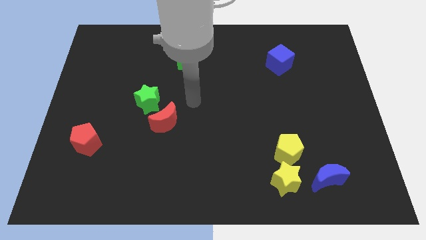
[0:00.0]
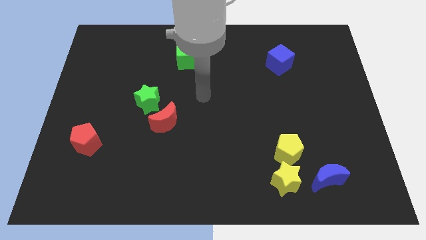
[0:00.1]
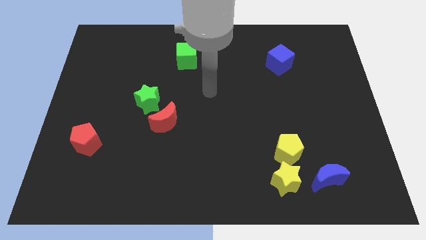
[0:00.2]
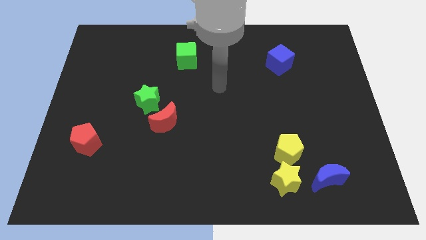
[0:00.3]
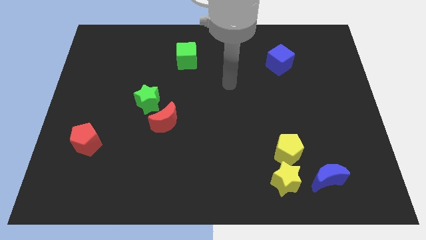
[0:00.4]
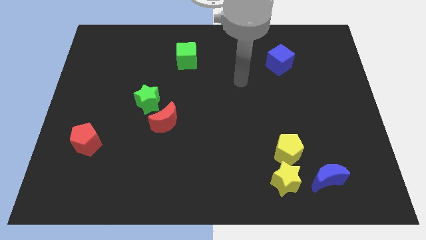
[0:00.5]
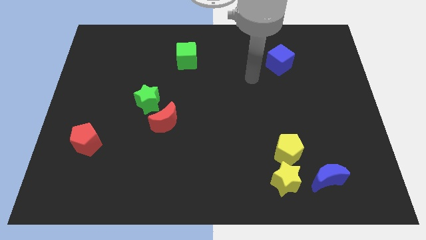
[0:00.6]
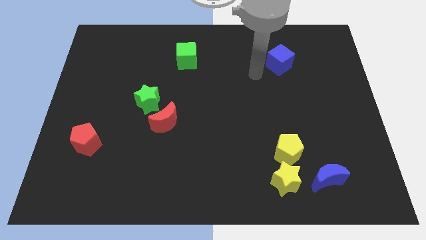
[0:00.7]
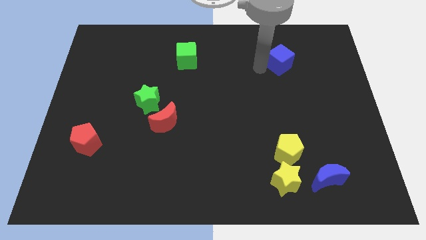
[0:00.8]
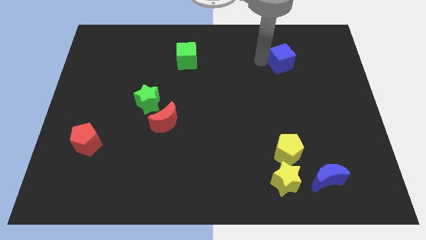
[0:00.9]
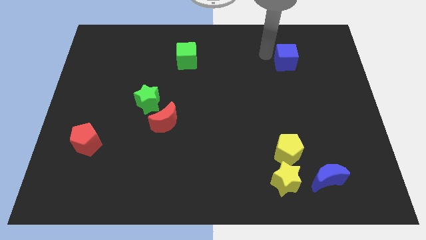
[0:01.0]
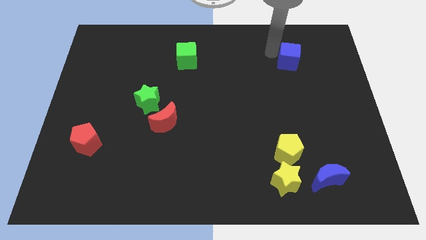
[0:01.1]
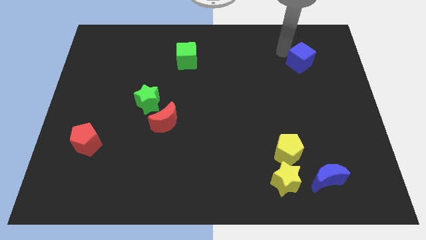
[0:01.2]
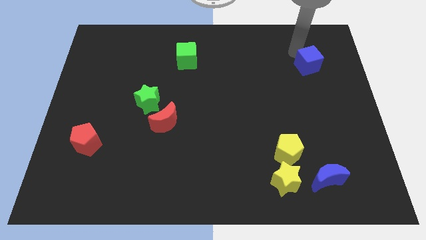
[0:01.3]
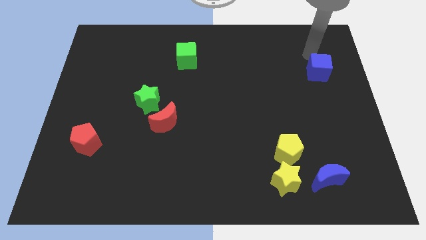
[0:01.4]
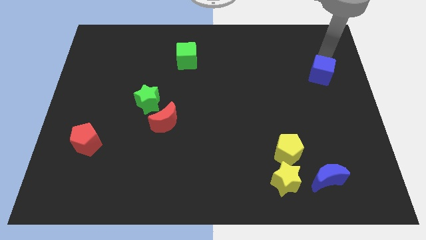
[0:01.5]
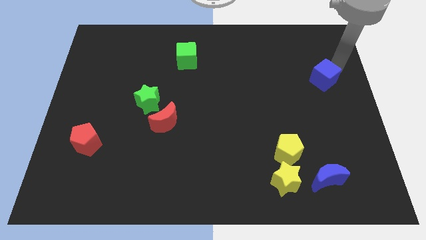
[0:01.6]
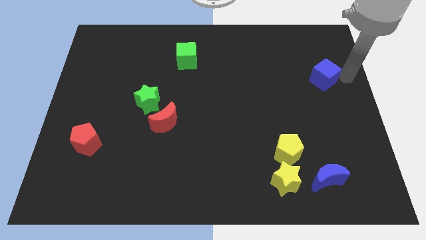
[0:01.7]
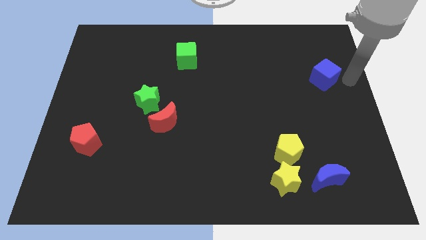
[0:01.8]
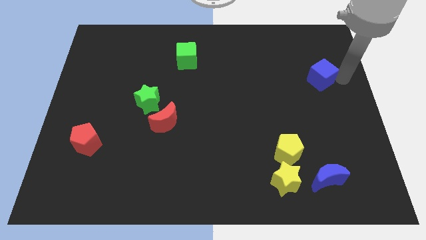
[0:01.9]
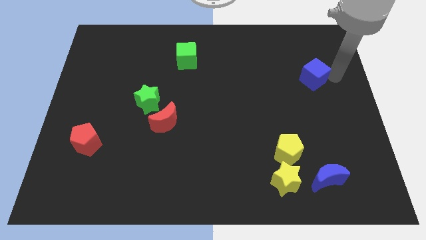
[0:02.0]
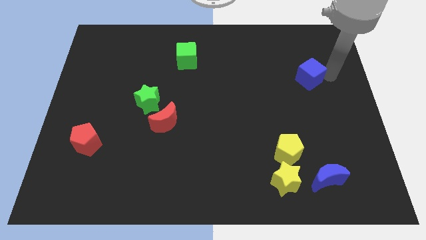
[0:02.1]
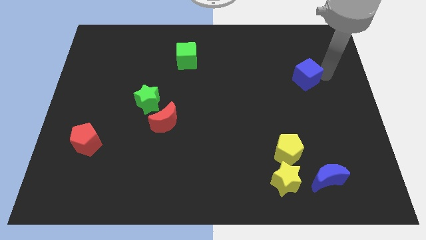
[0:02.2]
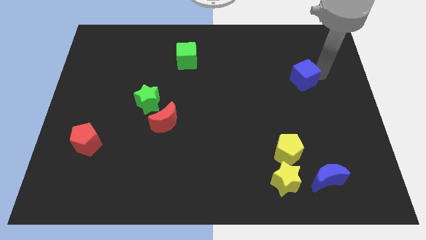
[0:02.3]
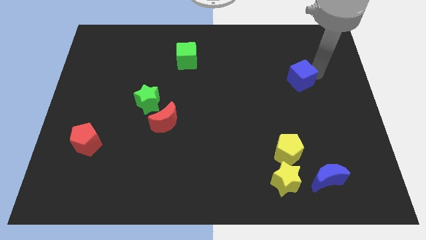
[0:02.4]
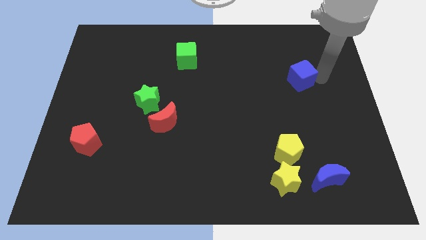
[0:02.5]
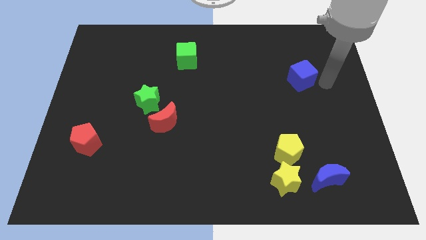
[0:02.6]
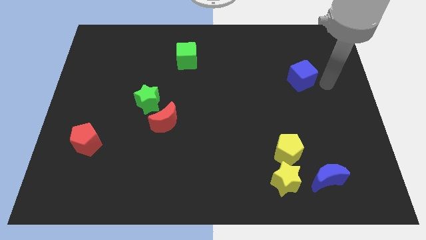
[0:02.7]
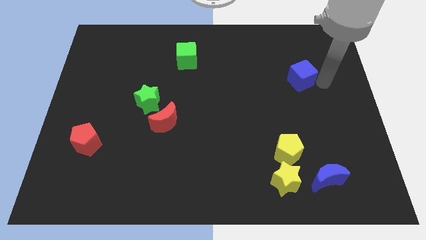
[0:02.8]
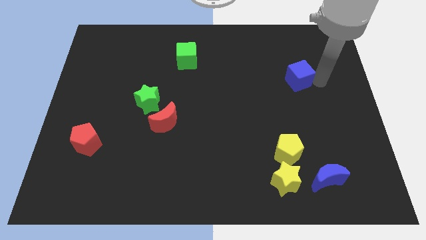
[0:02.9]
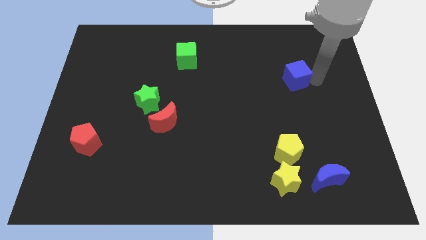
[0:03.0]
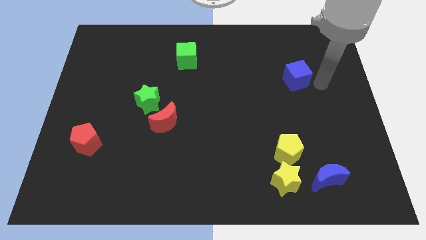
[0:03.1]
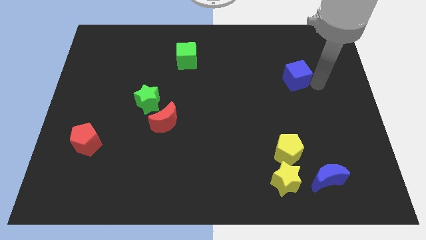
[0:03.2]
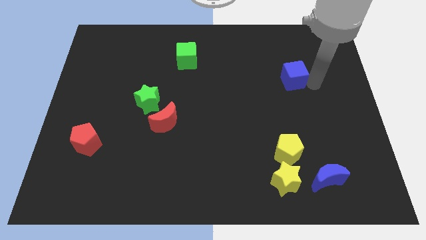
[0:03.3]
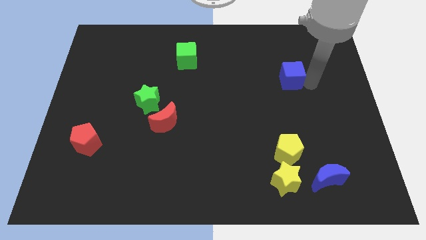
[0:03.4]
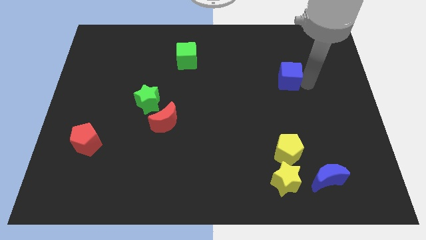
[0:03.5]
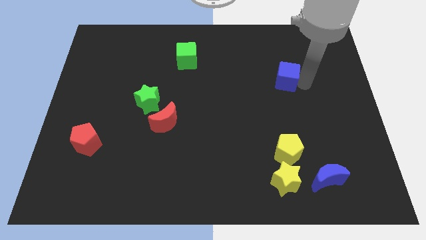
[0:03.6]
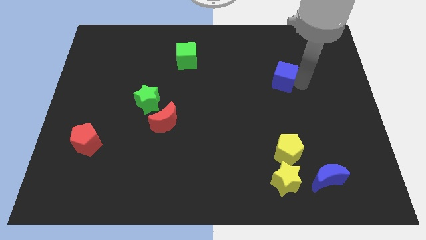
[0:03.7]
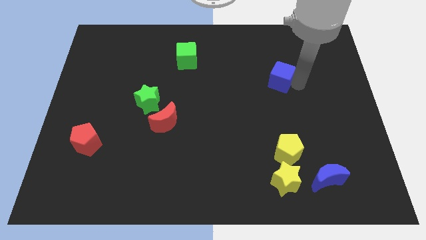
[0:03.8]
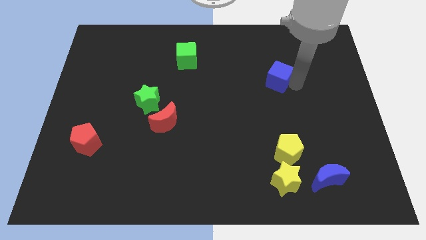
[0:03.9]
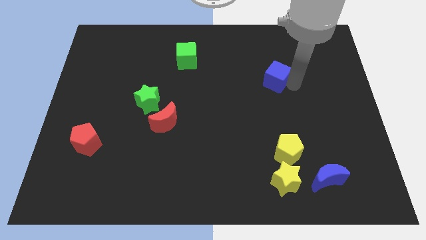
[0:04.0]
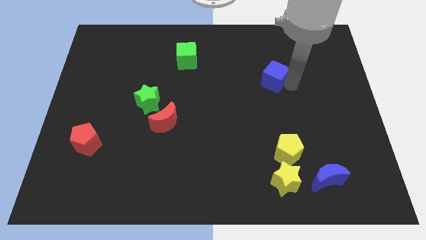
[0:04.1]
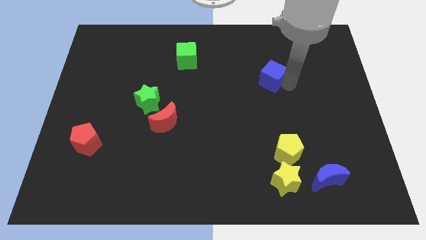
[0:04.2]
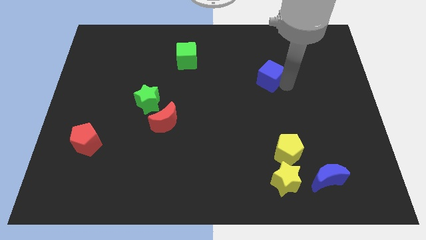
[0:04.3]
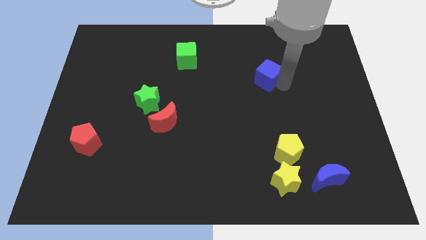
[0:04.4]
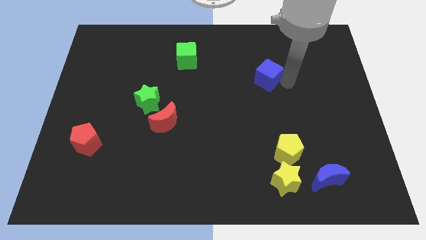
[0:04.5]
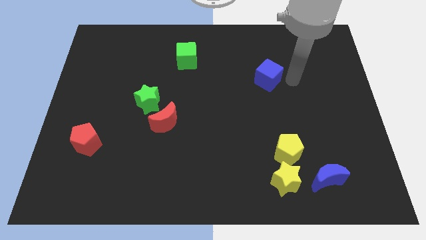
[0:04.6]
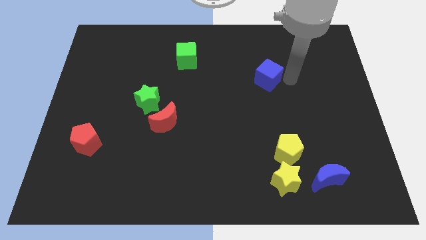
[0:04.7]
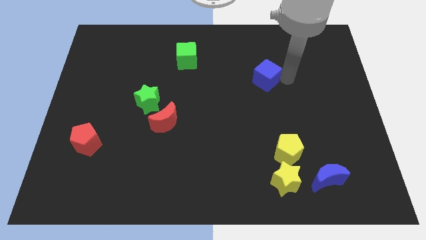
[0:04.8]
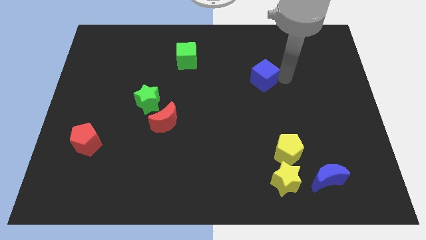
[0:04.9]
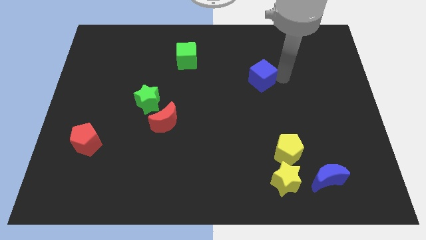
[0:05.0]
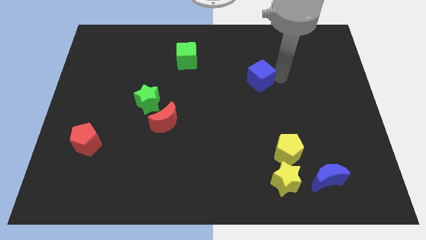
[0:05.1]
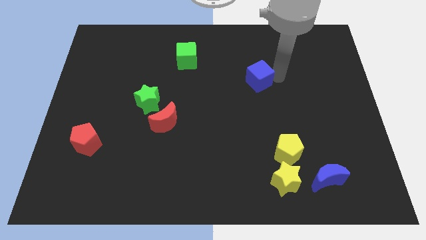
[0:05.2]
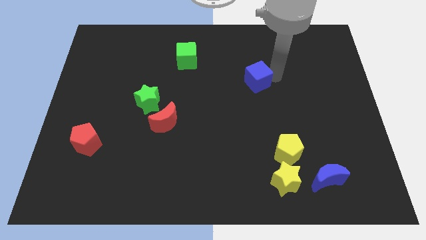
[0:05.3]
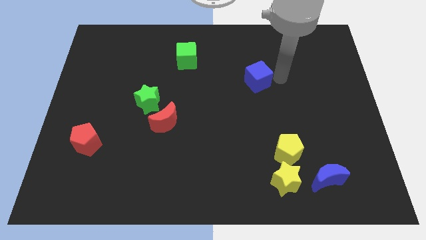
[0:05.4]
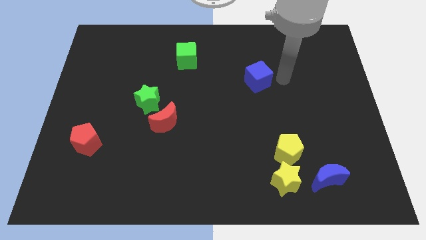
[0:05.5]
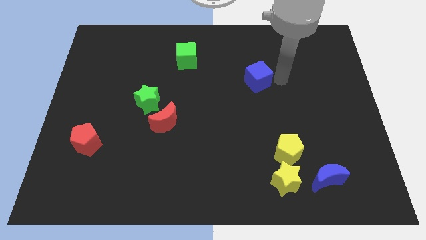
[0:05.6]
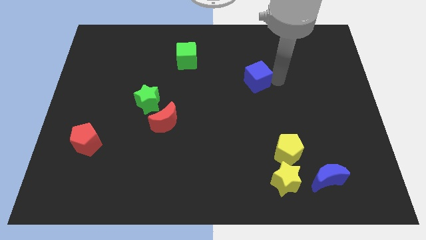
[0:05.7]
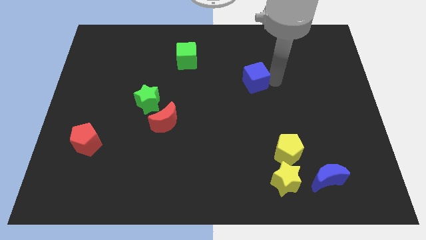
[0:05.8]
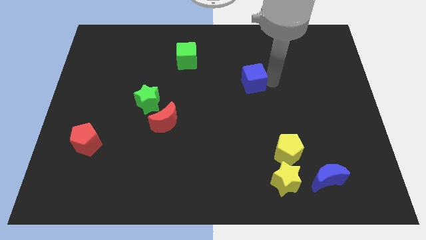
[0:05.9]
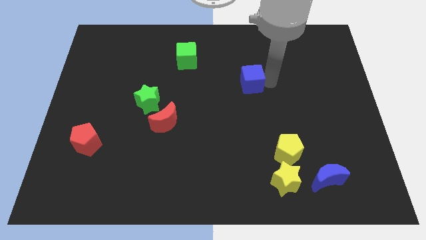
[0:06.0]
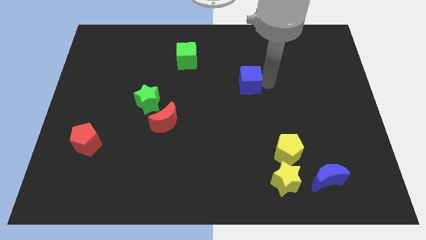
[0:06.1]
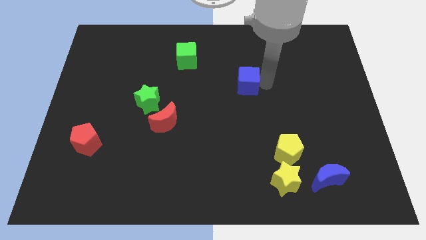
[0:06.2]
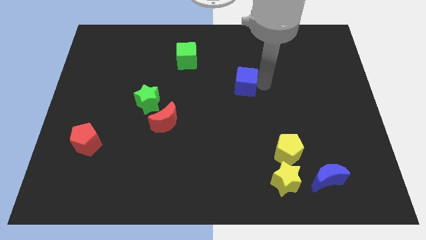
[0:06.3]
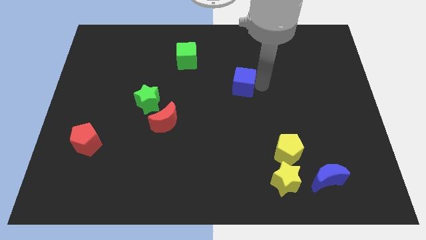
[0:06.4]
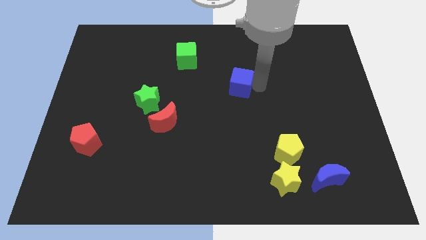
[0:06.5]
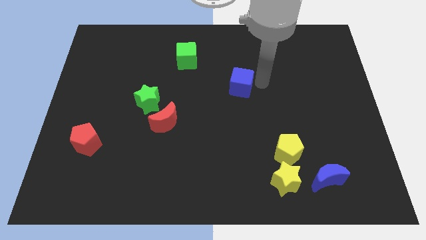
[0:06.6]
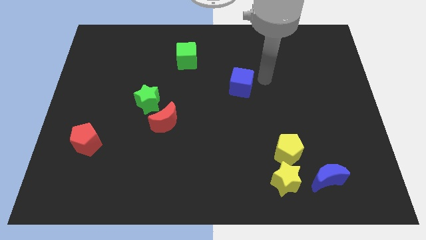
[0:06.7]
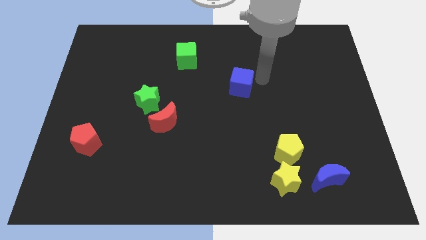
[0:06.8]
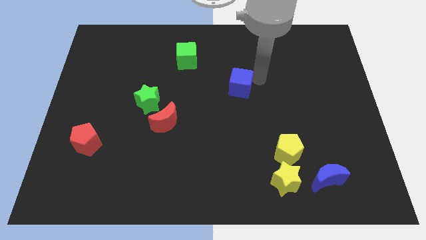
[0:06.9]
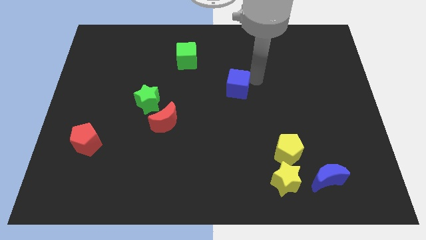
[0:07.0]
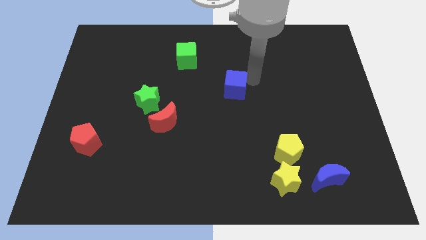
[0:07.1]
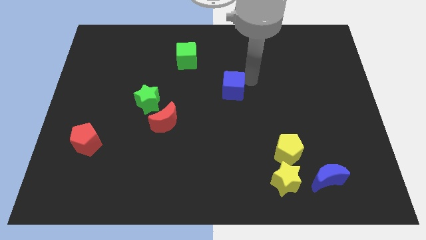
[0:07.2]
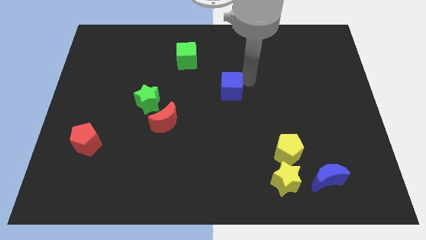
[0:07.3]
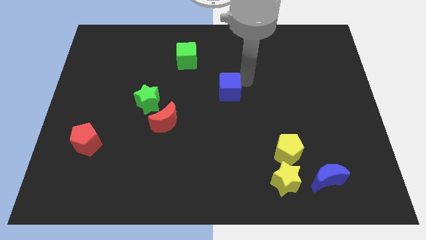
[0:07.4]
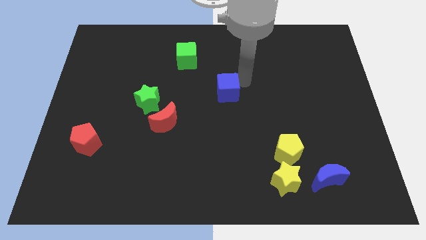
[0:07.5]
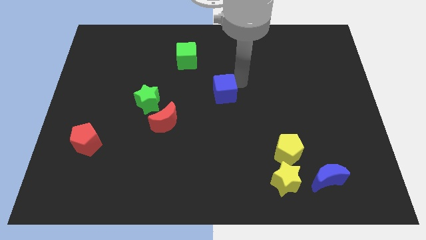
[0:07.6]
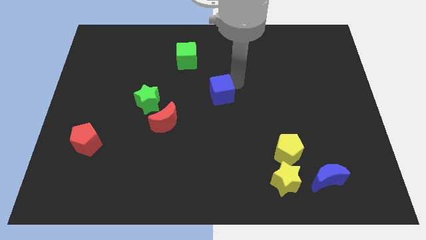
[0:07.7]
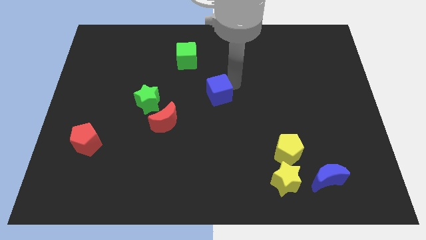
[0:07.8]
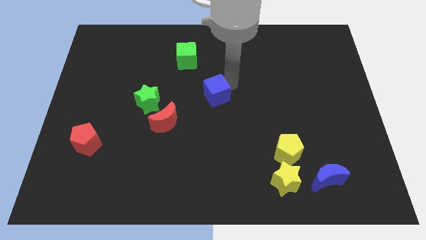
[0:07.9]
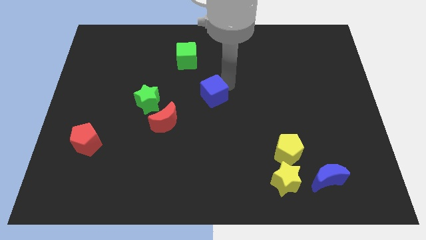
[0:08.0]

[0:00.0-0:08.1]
move the blue cube just right of the green star

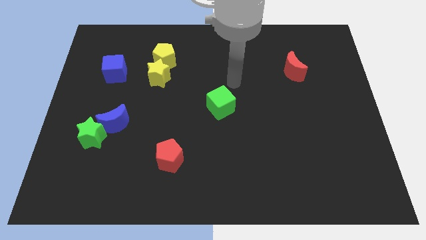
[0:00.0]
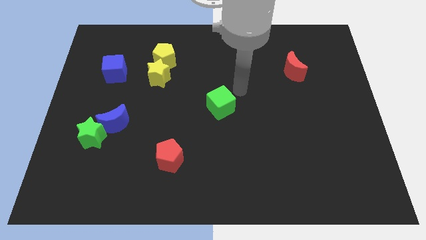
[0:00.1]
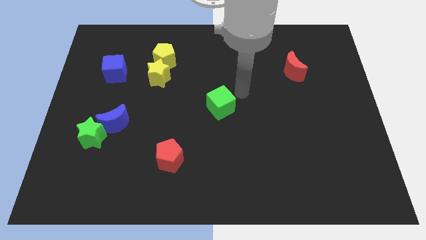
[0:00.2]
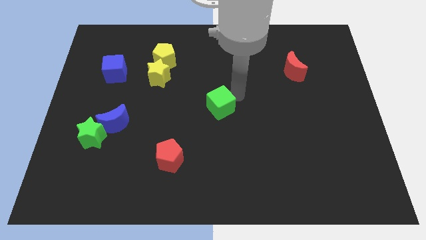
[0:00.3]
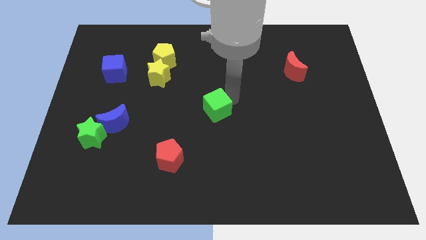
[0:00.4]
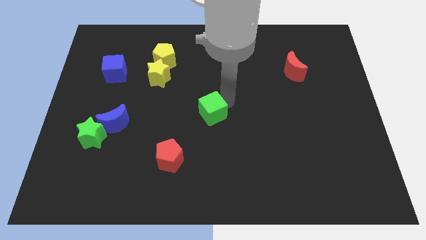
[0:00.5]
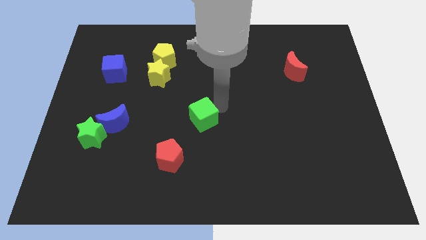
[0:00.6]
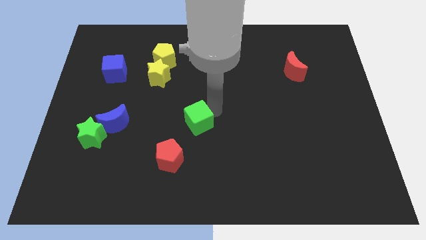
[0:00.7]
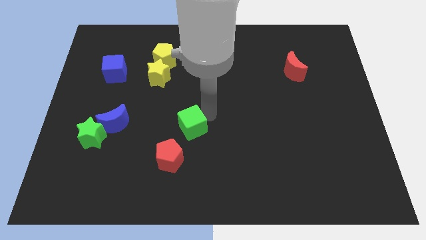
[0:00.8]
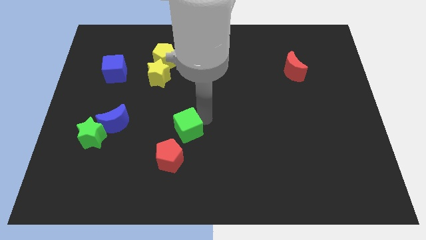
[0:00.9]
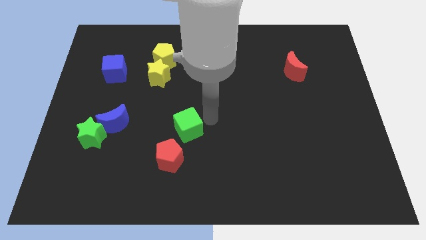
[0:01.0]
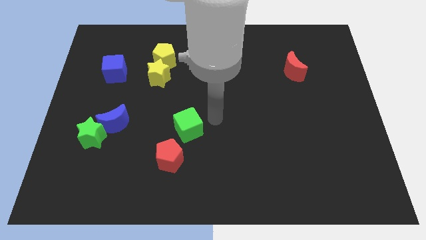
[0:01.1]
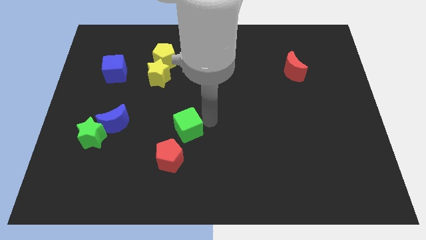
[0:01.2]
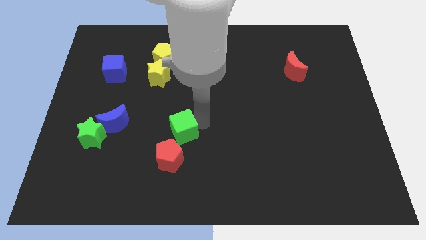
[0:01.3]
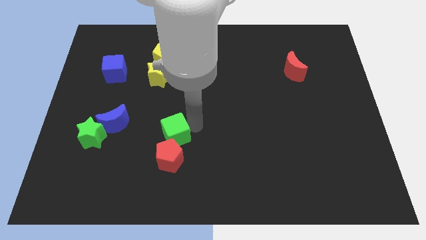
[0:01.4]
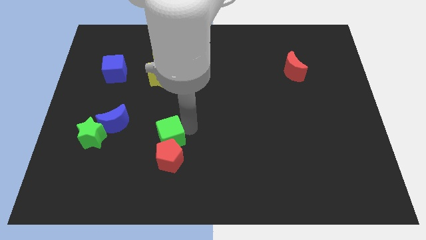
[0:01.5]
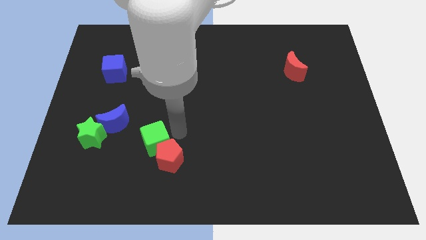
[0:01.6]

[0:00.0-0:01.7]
push the green cube to the left of the red pentagon
